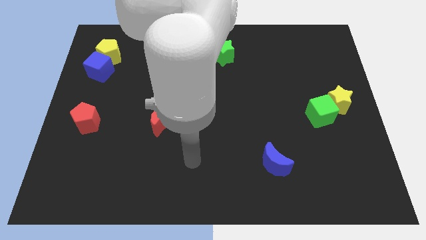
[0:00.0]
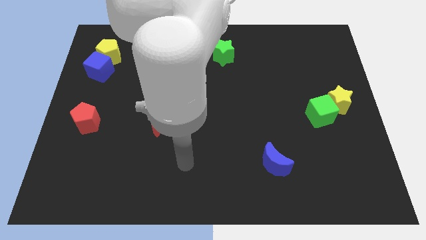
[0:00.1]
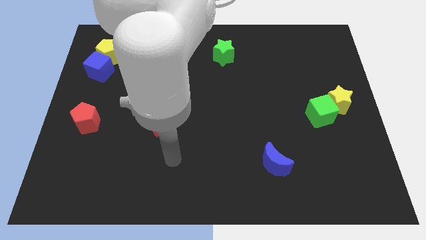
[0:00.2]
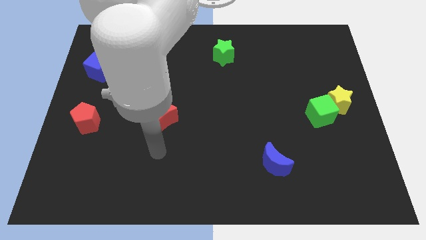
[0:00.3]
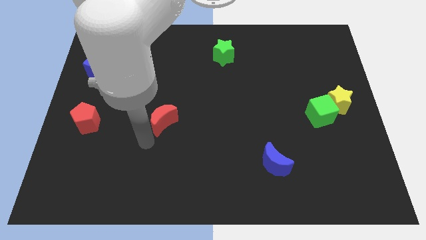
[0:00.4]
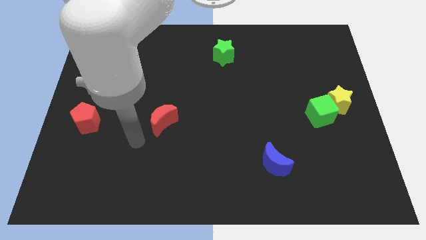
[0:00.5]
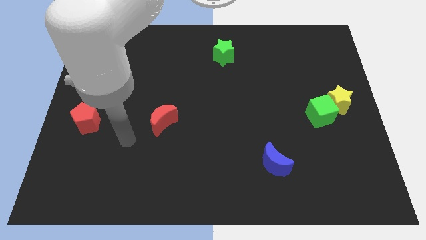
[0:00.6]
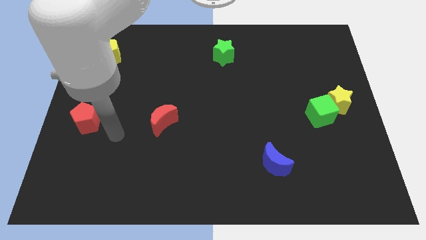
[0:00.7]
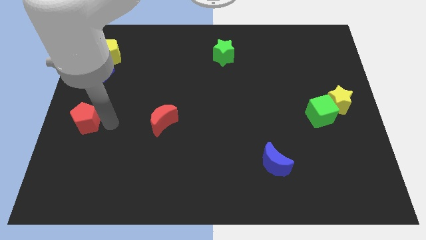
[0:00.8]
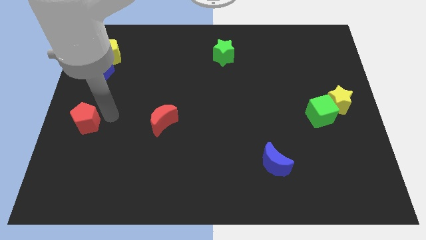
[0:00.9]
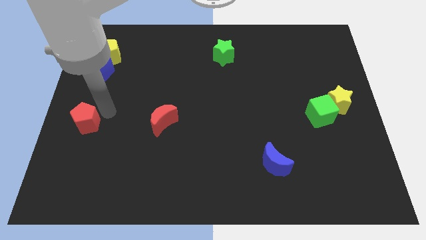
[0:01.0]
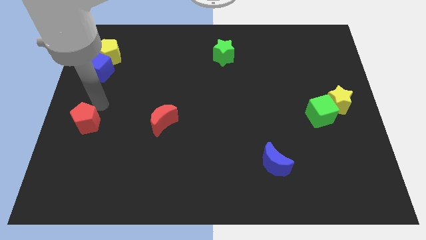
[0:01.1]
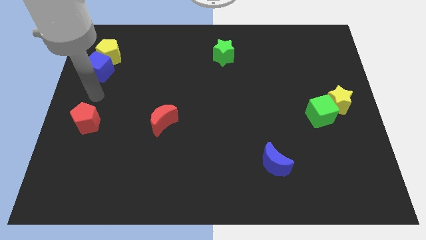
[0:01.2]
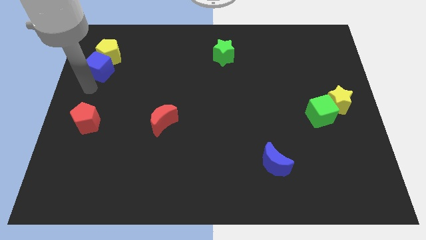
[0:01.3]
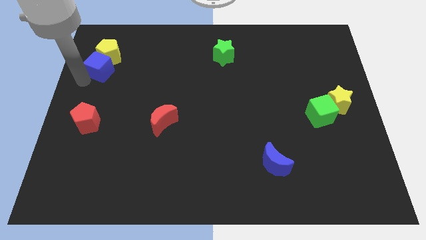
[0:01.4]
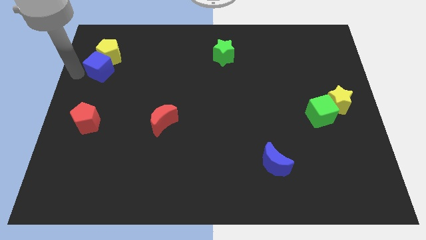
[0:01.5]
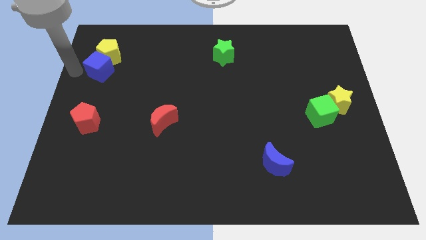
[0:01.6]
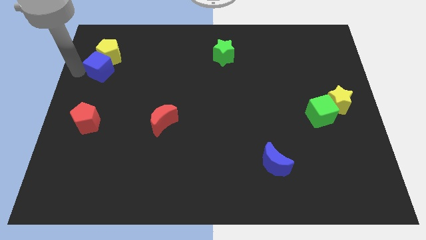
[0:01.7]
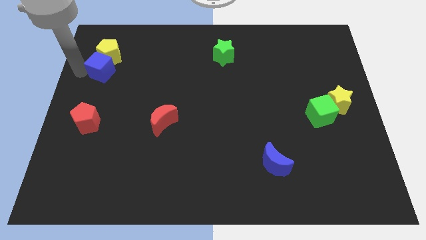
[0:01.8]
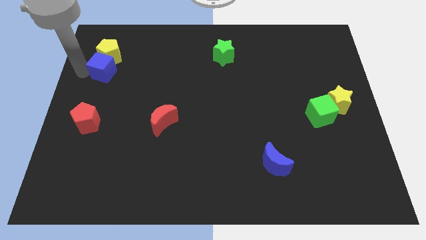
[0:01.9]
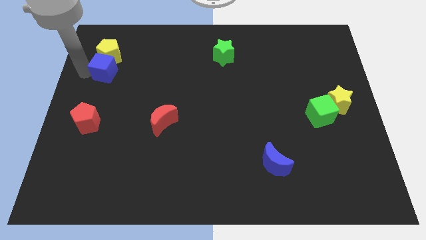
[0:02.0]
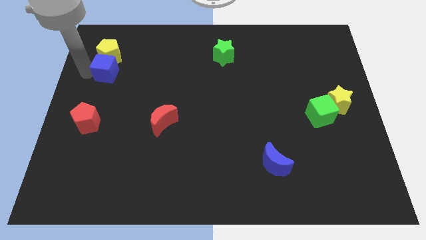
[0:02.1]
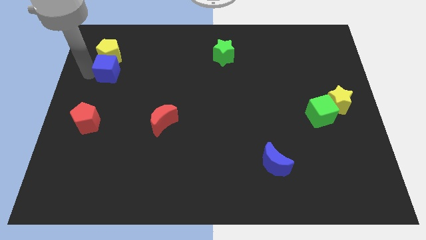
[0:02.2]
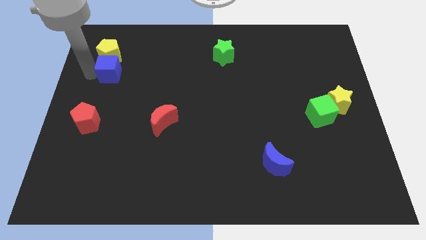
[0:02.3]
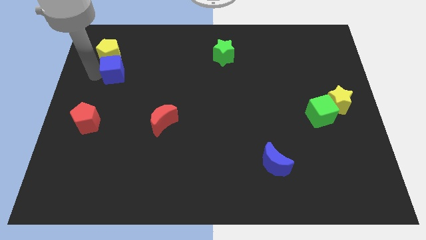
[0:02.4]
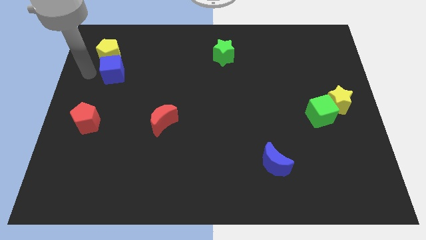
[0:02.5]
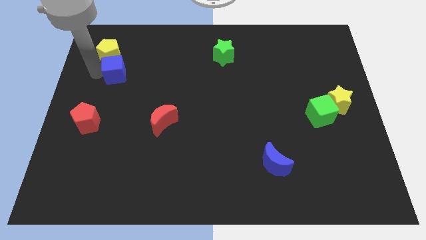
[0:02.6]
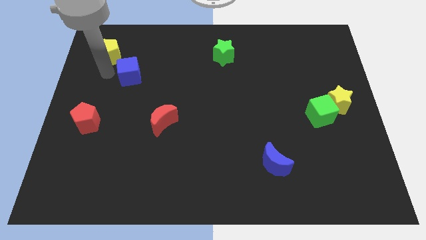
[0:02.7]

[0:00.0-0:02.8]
slightly move the blue cube right

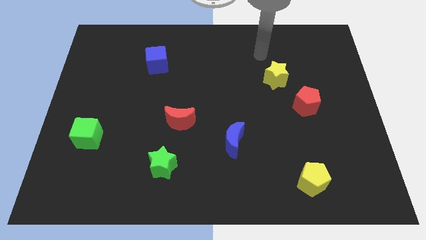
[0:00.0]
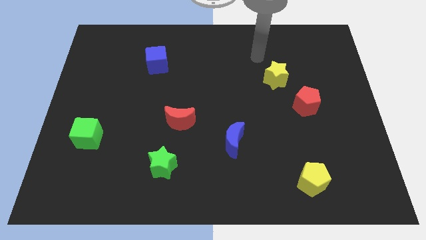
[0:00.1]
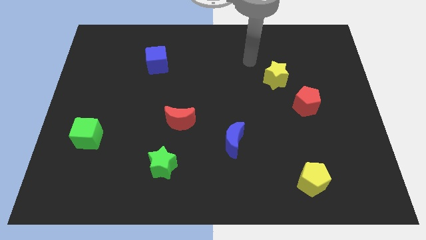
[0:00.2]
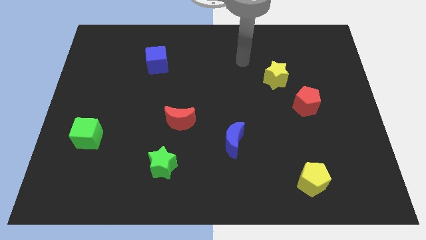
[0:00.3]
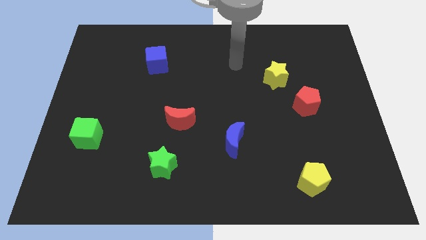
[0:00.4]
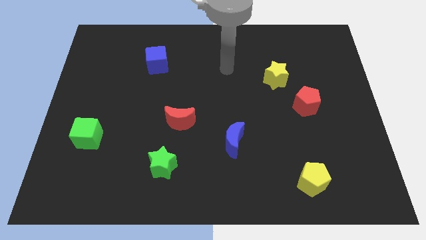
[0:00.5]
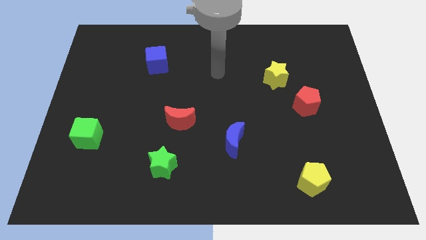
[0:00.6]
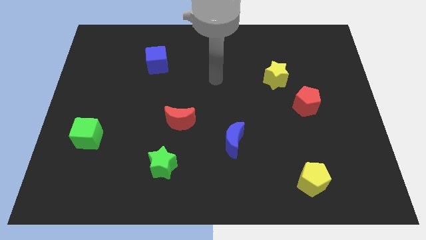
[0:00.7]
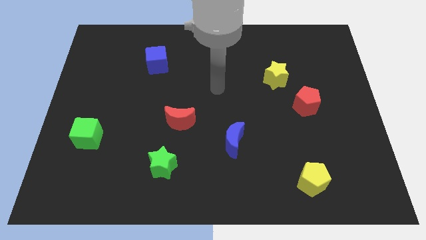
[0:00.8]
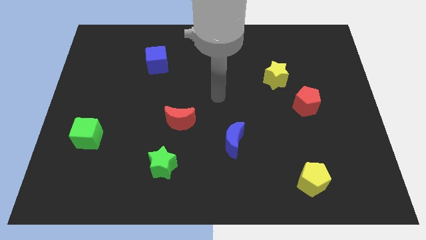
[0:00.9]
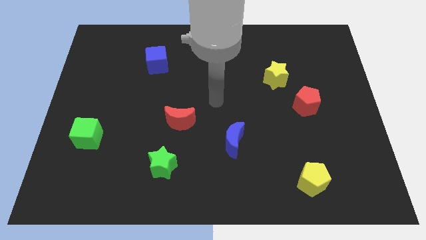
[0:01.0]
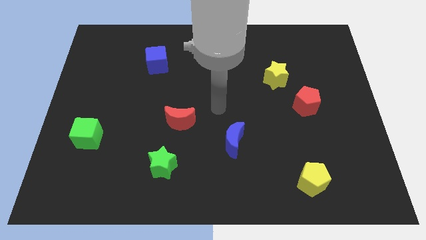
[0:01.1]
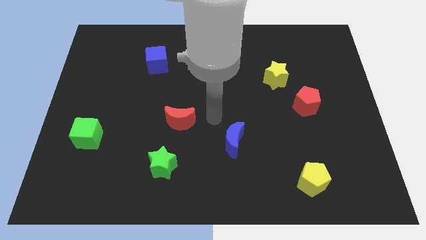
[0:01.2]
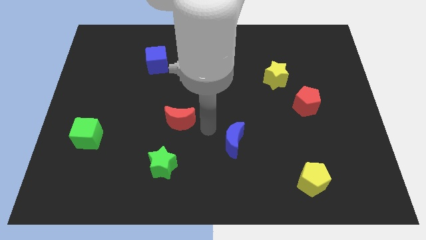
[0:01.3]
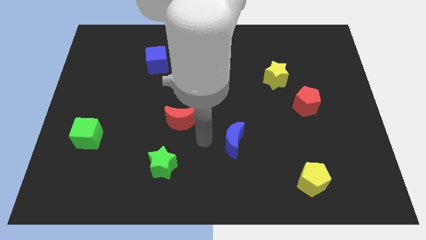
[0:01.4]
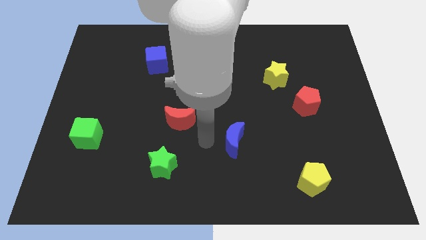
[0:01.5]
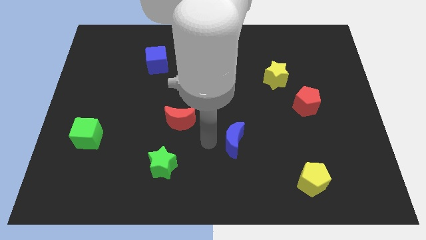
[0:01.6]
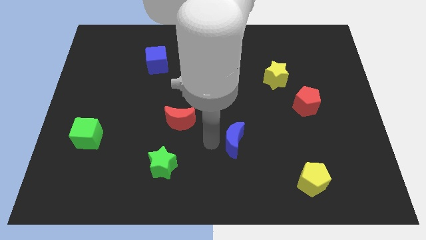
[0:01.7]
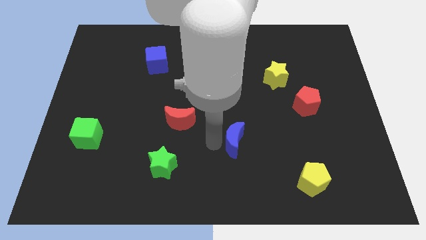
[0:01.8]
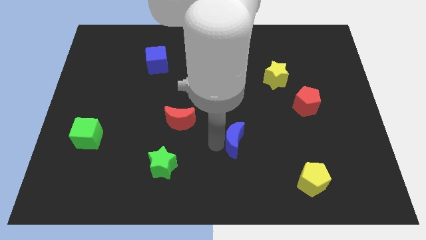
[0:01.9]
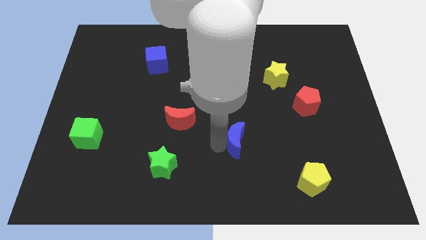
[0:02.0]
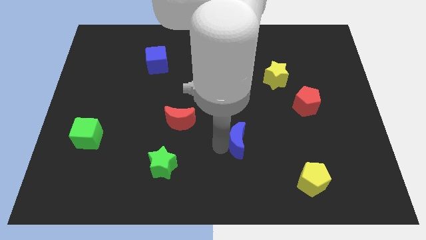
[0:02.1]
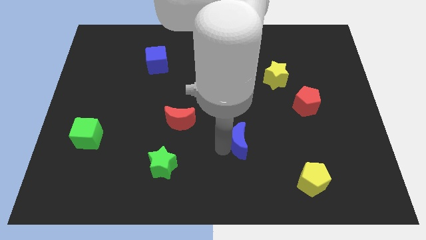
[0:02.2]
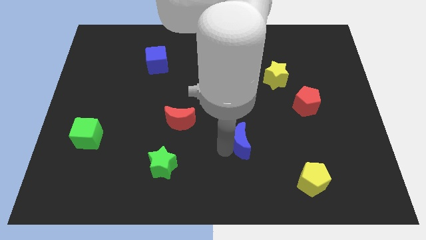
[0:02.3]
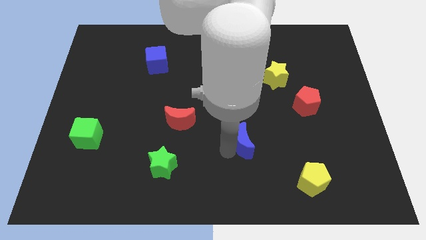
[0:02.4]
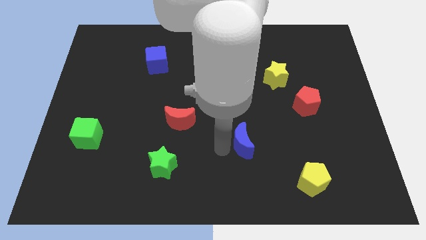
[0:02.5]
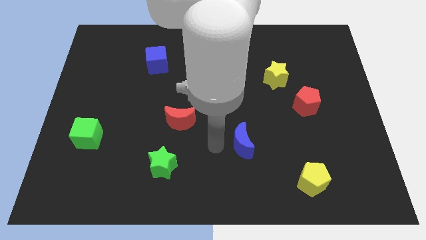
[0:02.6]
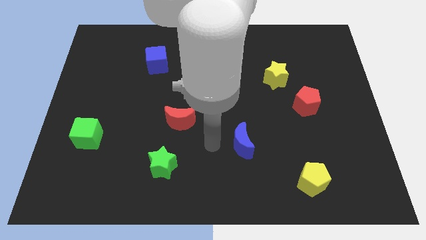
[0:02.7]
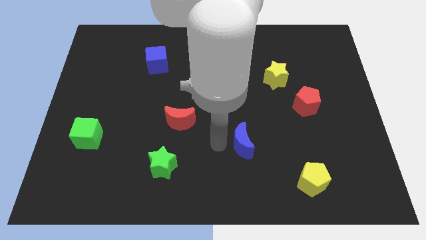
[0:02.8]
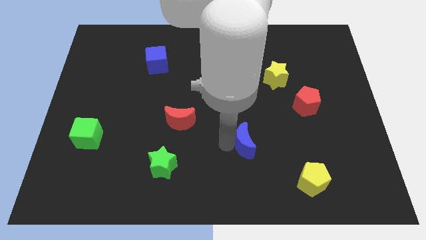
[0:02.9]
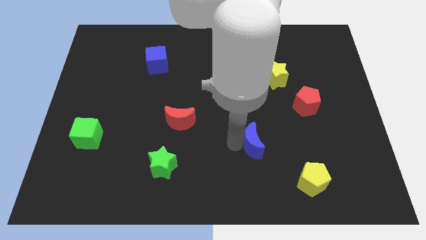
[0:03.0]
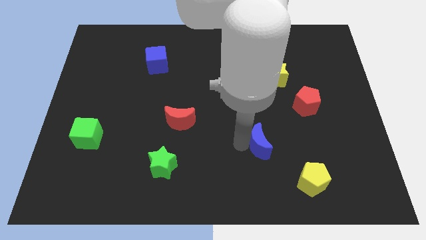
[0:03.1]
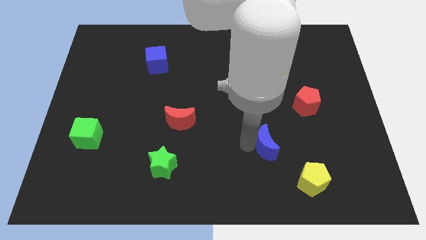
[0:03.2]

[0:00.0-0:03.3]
slightly move the blue moon to the right

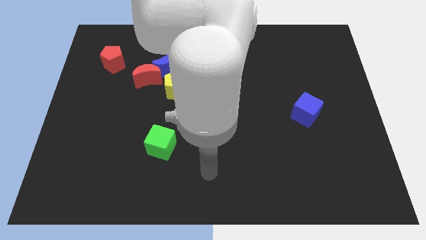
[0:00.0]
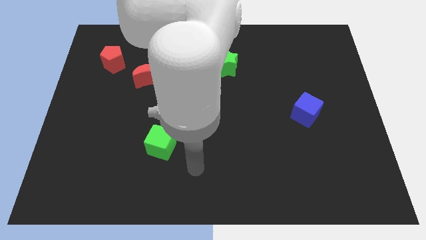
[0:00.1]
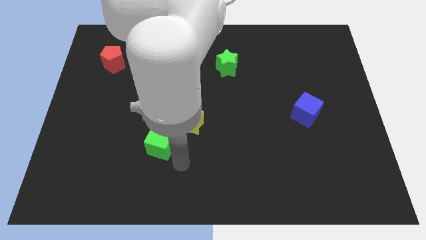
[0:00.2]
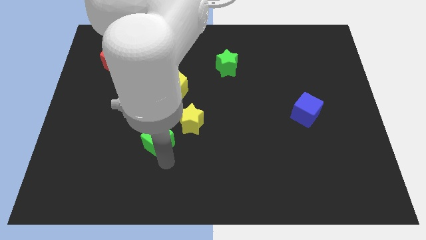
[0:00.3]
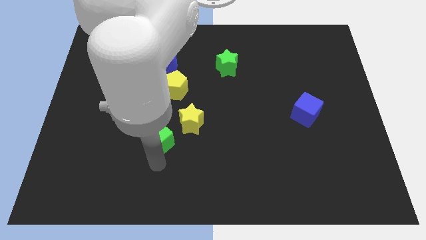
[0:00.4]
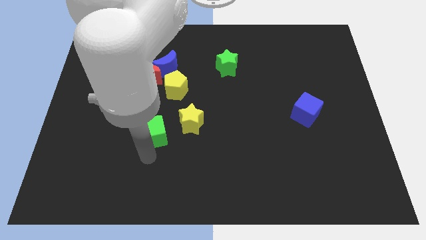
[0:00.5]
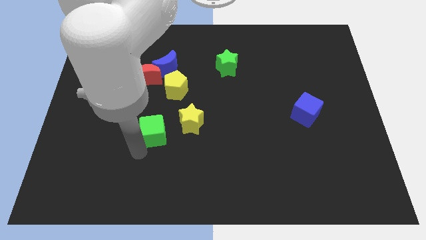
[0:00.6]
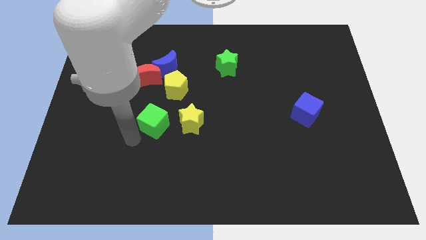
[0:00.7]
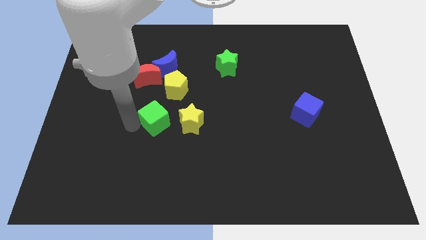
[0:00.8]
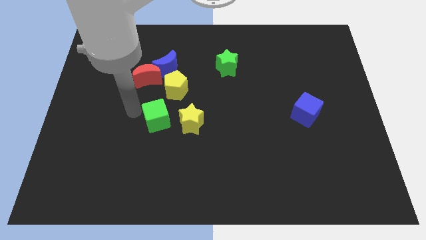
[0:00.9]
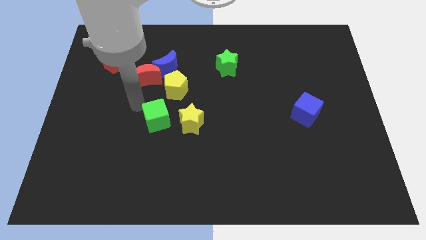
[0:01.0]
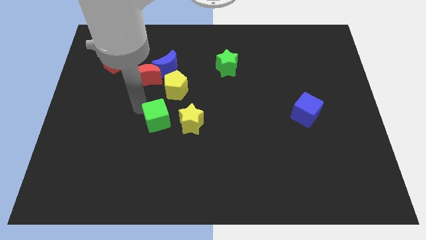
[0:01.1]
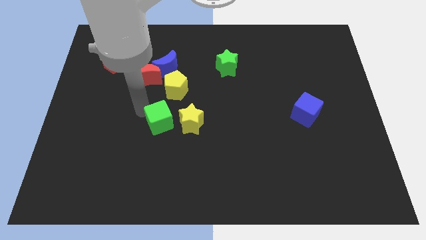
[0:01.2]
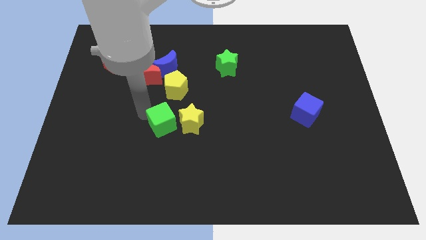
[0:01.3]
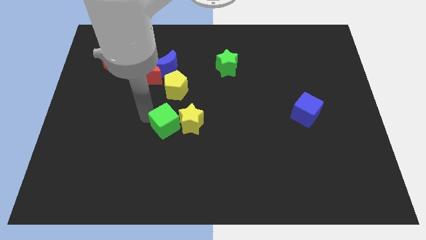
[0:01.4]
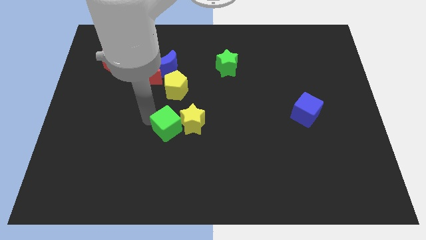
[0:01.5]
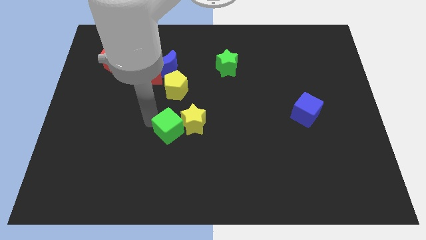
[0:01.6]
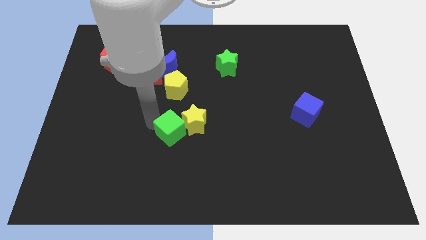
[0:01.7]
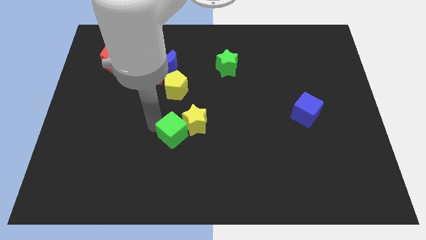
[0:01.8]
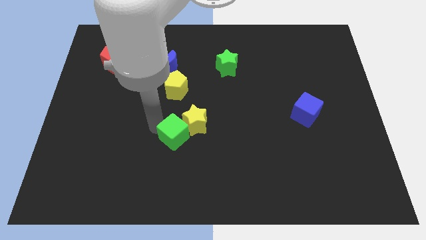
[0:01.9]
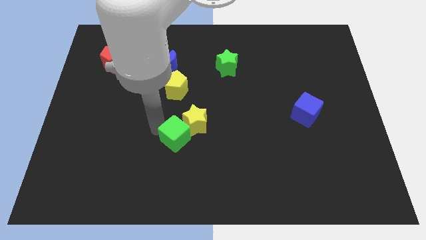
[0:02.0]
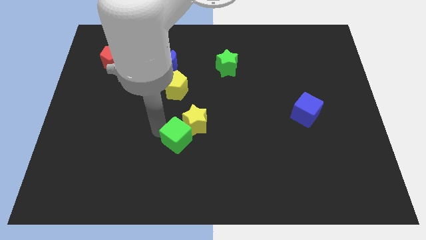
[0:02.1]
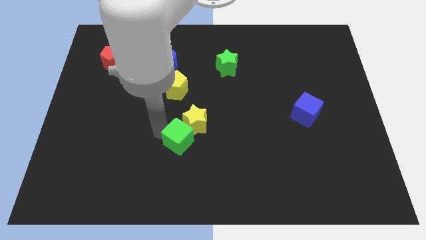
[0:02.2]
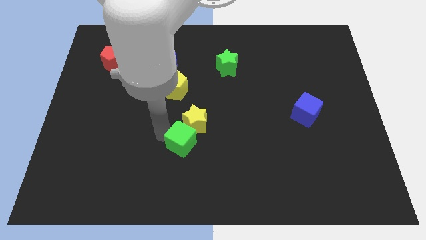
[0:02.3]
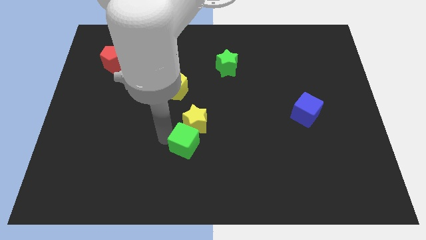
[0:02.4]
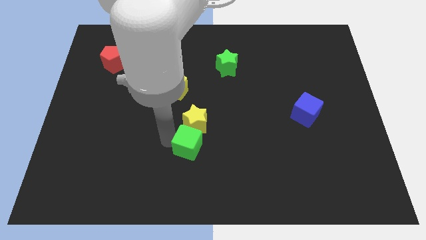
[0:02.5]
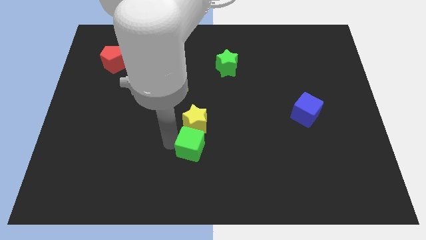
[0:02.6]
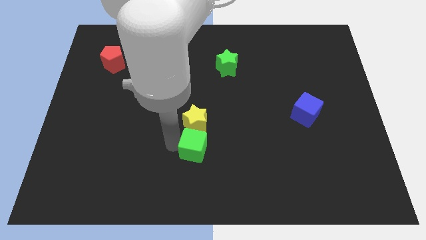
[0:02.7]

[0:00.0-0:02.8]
slide the green cube a little to the right
